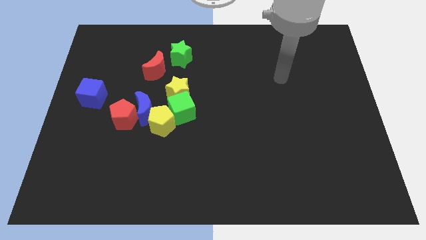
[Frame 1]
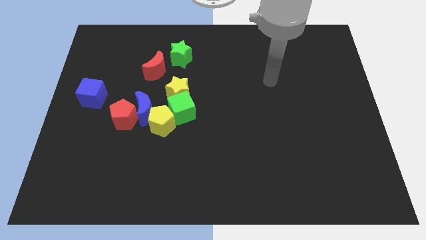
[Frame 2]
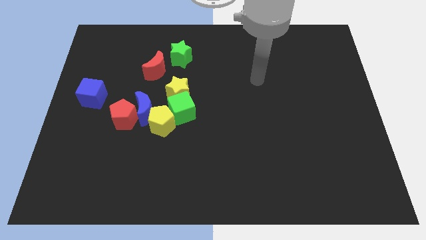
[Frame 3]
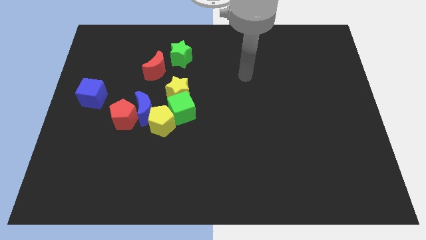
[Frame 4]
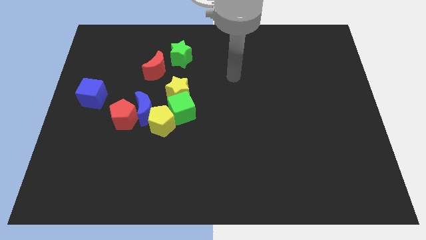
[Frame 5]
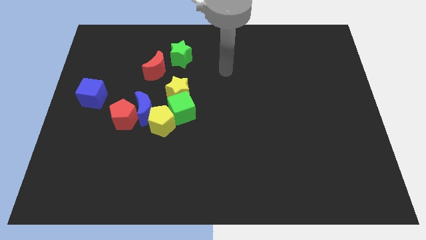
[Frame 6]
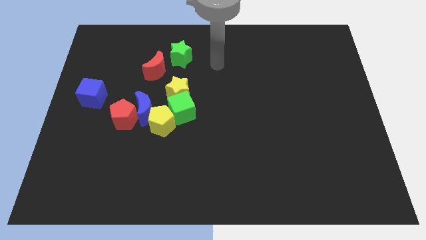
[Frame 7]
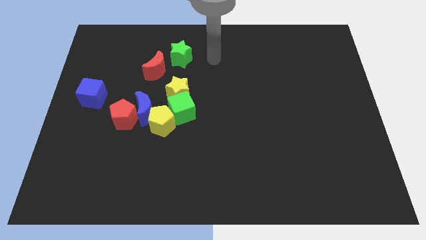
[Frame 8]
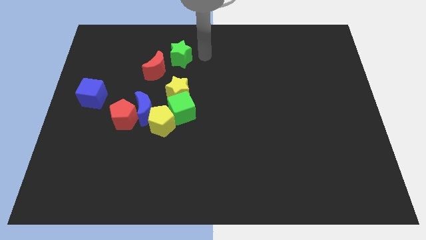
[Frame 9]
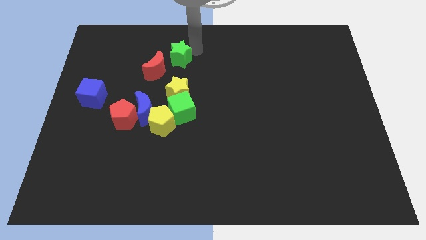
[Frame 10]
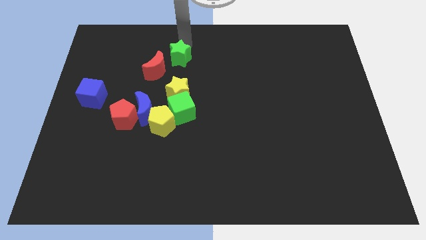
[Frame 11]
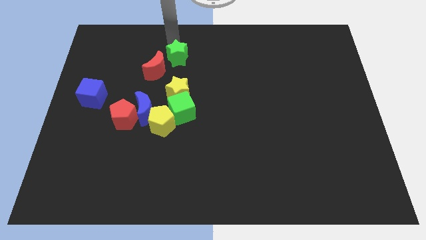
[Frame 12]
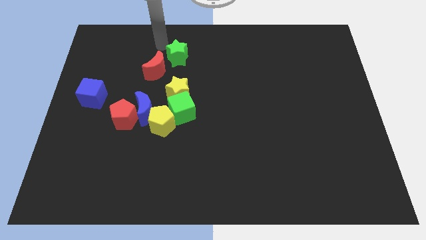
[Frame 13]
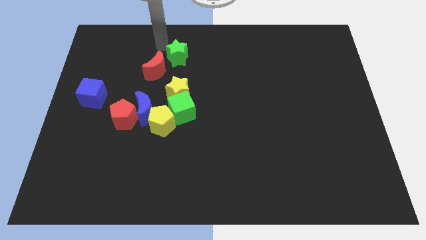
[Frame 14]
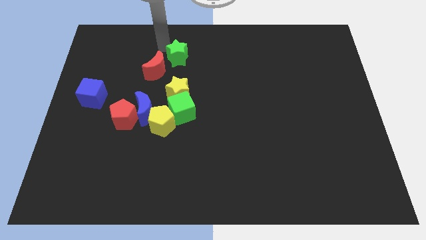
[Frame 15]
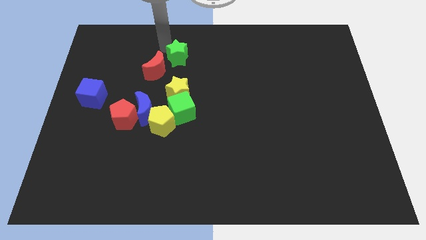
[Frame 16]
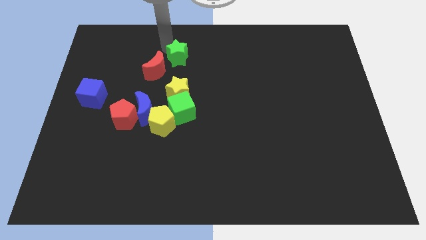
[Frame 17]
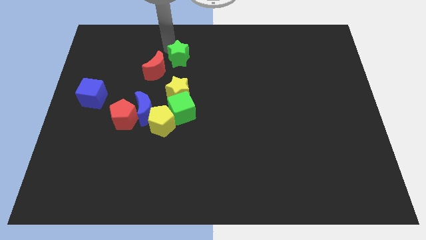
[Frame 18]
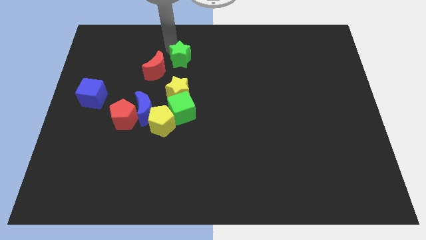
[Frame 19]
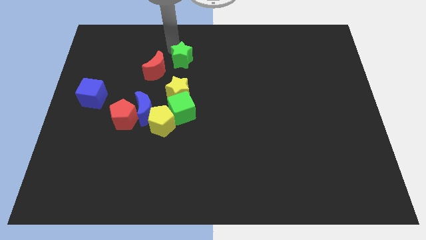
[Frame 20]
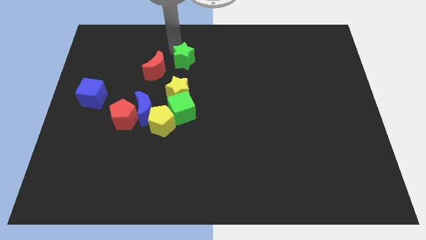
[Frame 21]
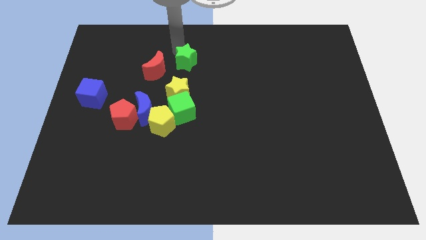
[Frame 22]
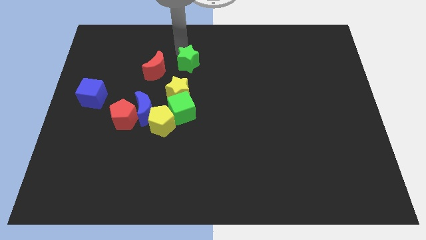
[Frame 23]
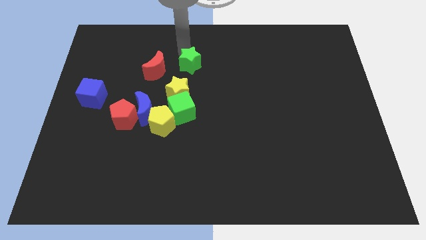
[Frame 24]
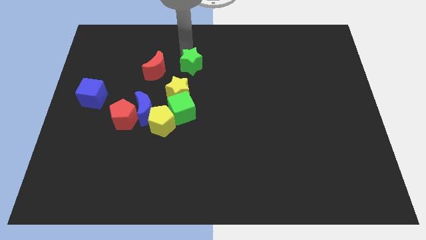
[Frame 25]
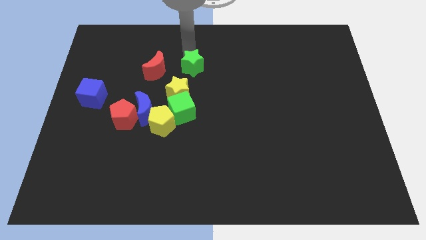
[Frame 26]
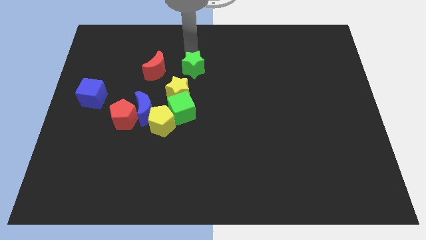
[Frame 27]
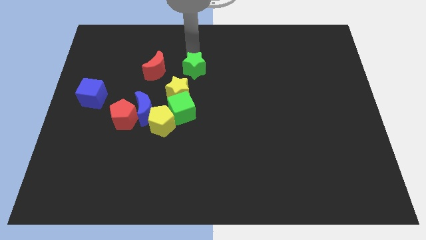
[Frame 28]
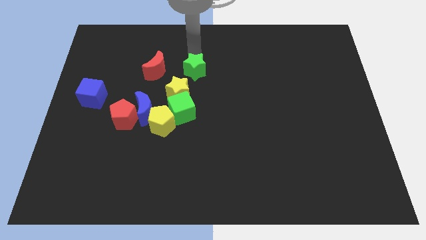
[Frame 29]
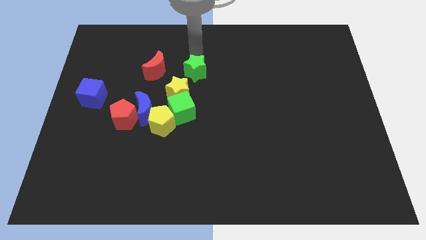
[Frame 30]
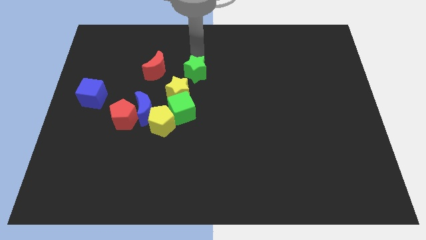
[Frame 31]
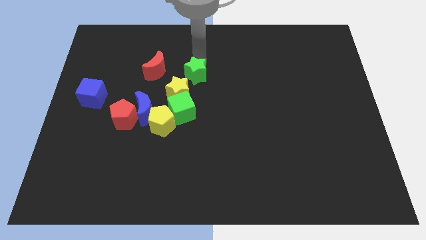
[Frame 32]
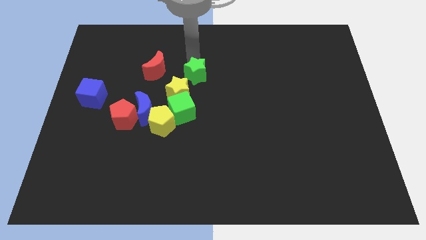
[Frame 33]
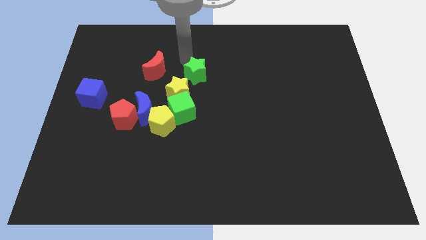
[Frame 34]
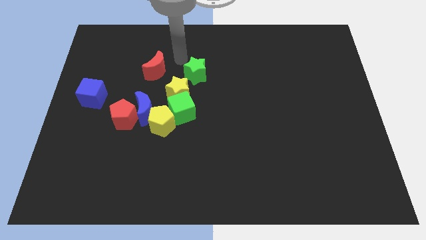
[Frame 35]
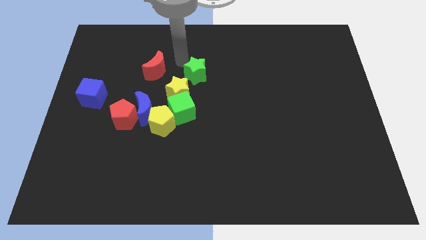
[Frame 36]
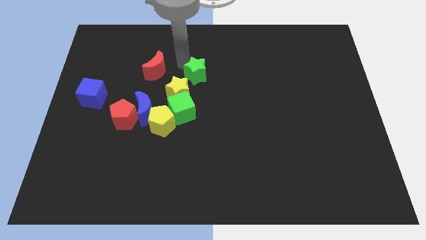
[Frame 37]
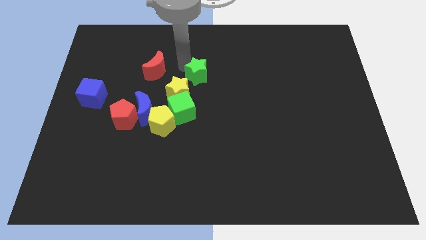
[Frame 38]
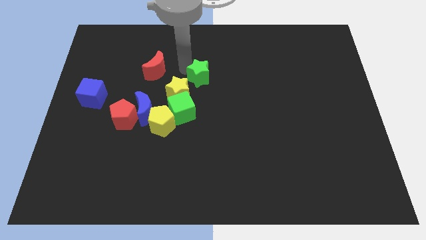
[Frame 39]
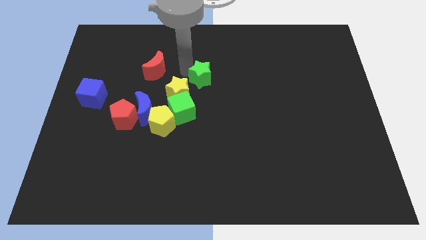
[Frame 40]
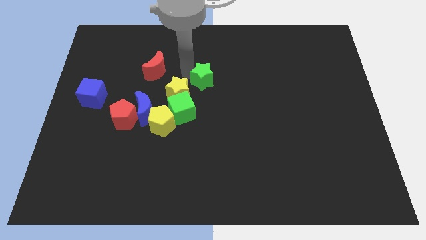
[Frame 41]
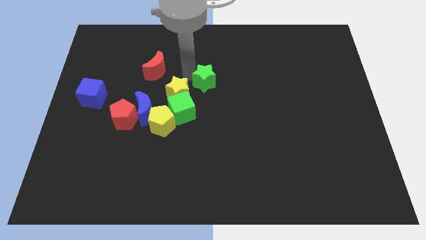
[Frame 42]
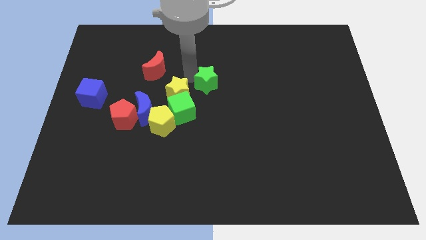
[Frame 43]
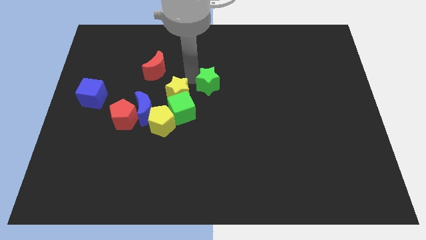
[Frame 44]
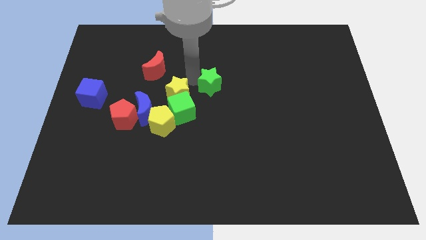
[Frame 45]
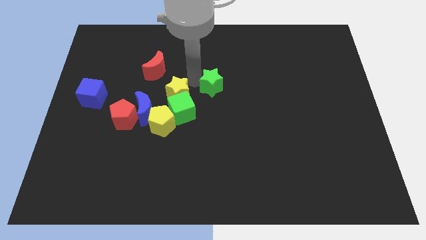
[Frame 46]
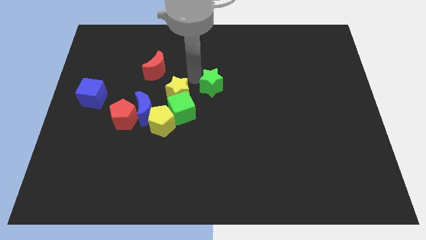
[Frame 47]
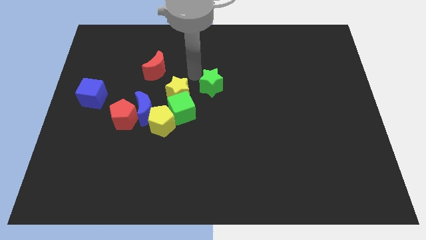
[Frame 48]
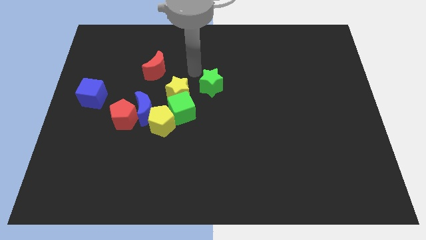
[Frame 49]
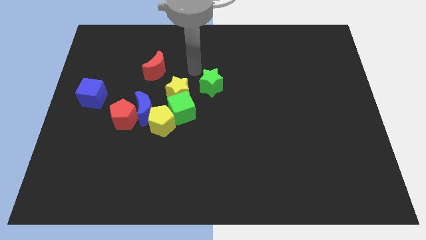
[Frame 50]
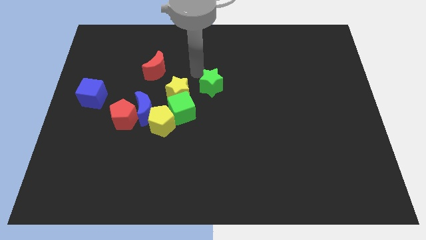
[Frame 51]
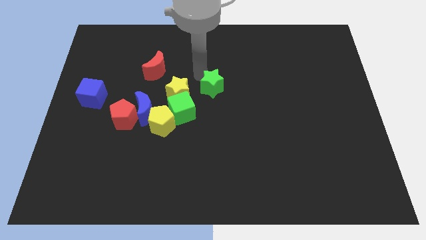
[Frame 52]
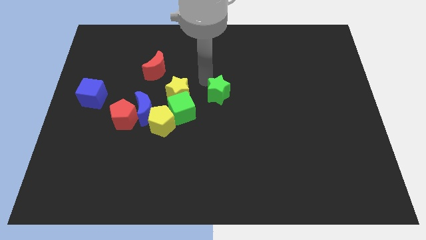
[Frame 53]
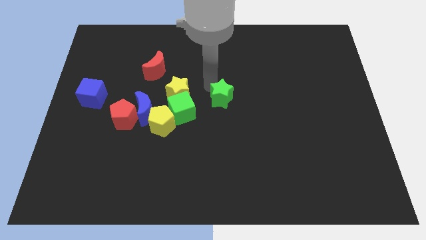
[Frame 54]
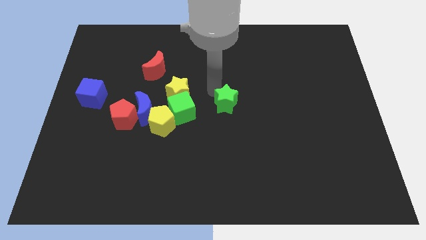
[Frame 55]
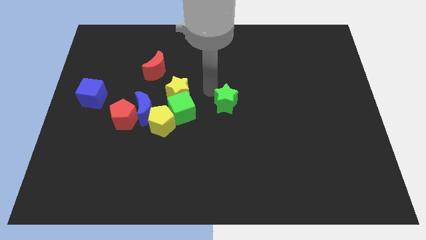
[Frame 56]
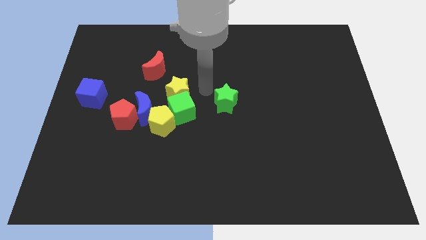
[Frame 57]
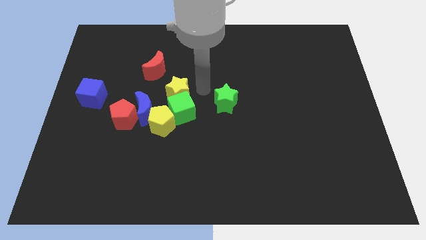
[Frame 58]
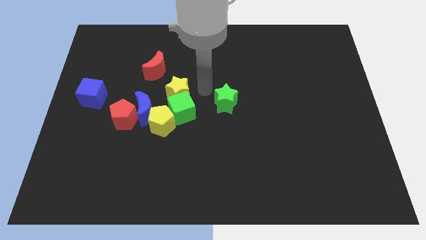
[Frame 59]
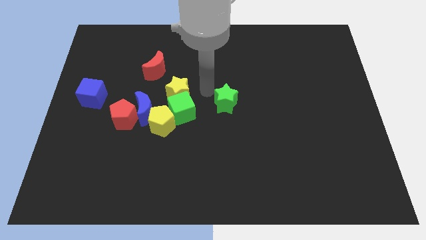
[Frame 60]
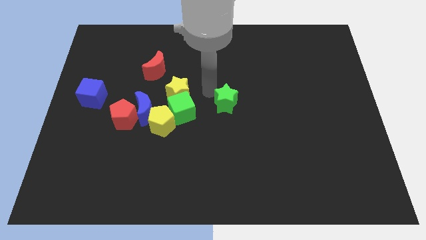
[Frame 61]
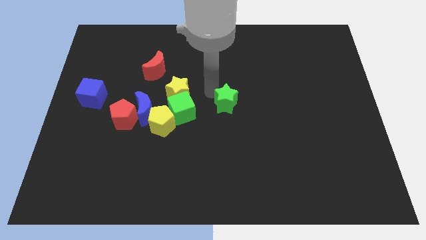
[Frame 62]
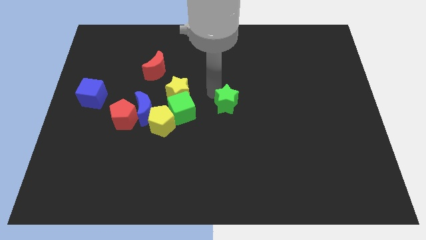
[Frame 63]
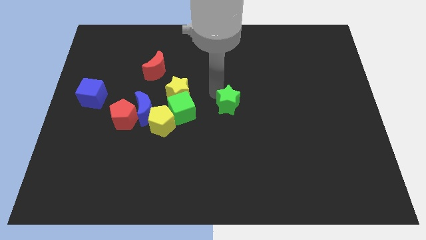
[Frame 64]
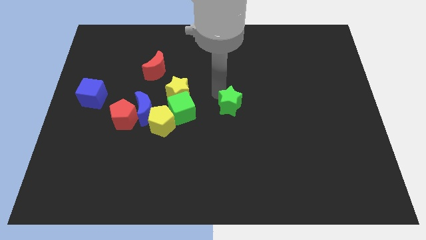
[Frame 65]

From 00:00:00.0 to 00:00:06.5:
move the green star down and right diagonally

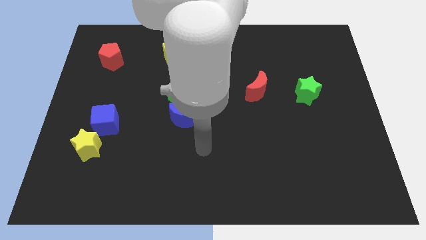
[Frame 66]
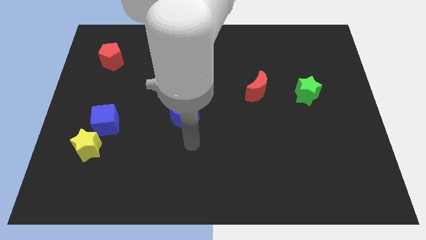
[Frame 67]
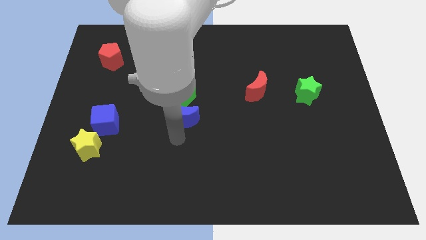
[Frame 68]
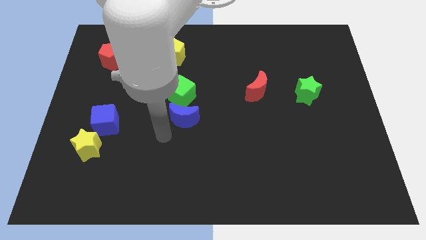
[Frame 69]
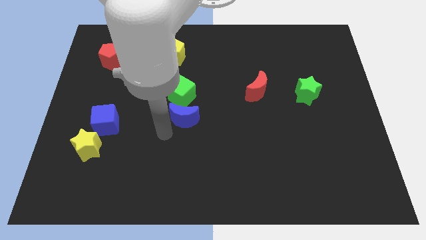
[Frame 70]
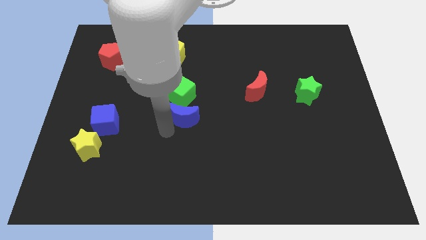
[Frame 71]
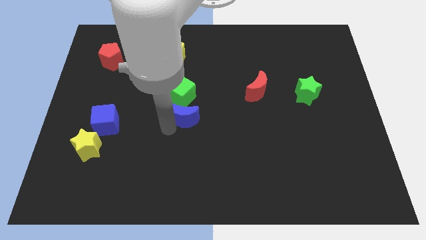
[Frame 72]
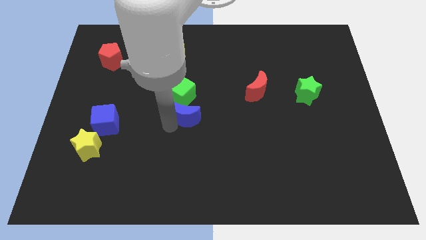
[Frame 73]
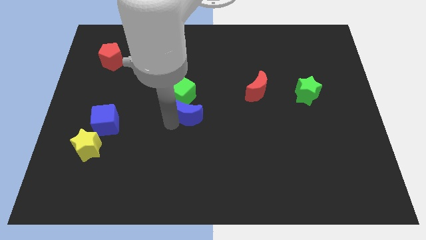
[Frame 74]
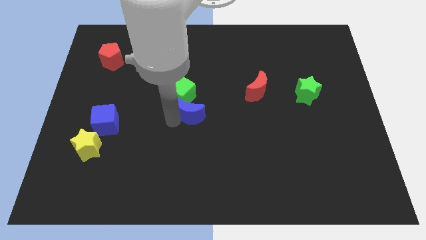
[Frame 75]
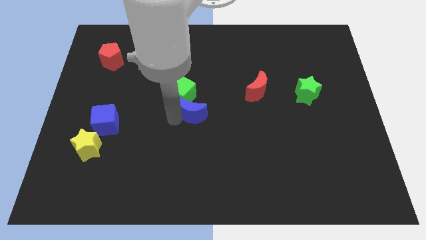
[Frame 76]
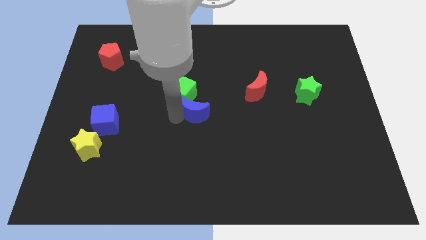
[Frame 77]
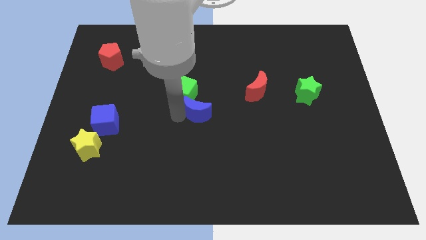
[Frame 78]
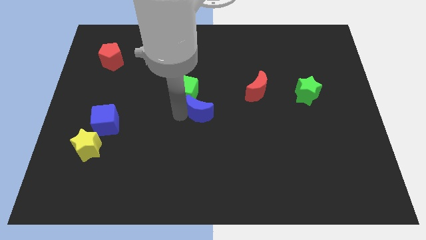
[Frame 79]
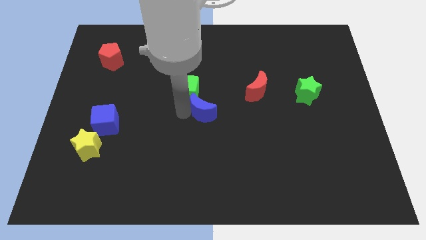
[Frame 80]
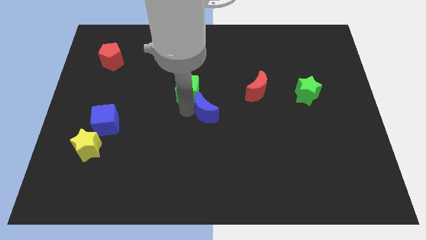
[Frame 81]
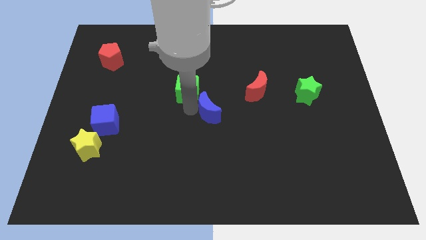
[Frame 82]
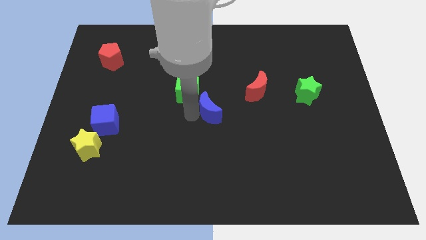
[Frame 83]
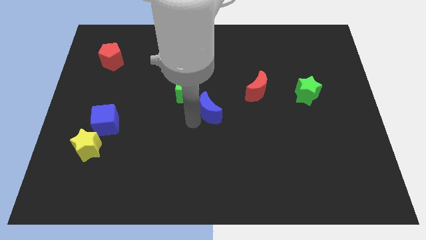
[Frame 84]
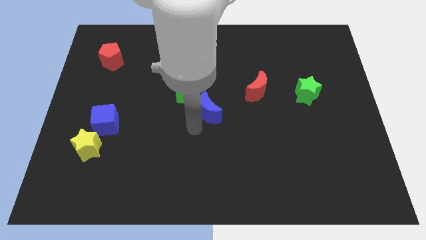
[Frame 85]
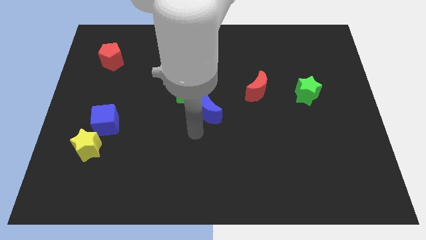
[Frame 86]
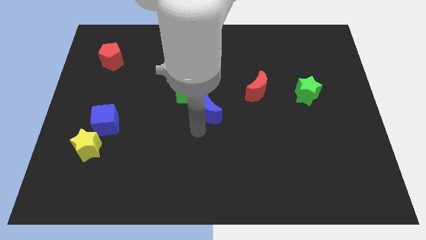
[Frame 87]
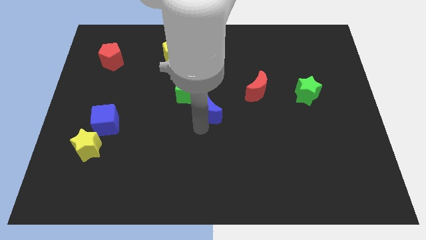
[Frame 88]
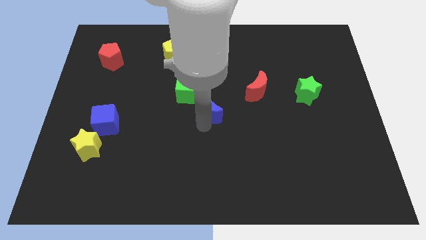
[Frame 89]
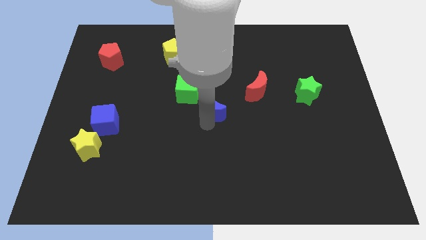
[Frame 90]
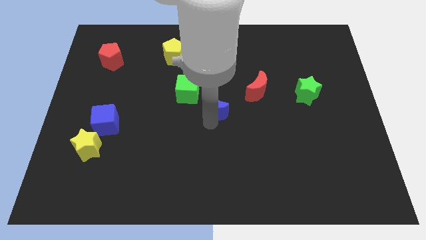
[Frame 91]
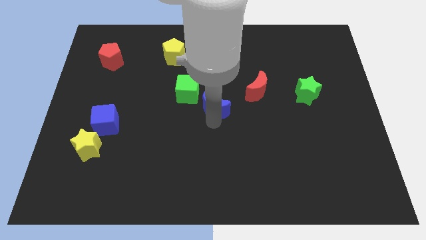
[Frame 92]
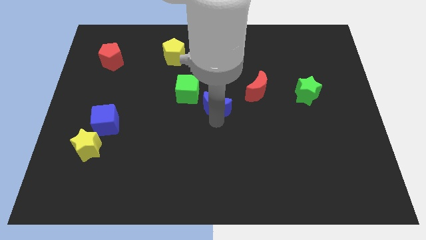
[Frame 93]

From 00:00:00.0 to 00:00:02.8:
push the blue moon slightly up and then right
